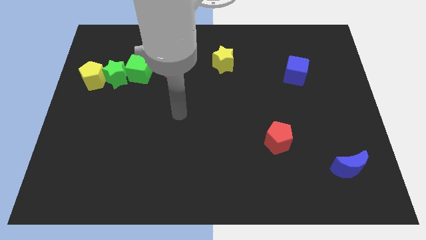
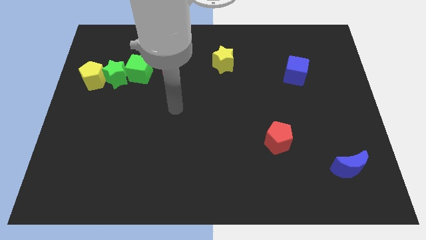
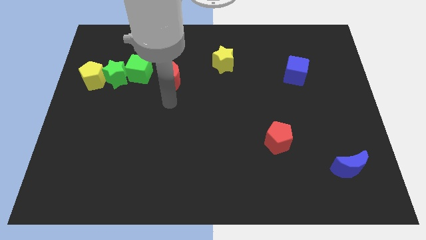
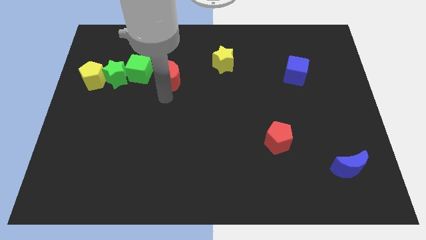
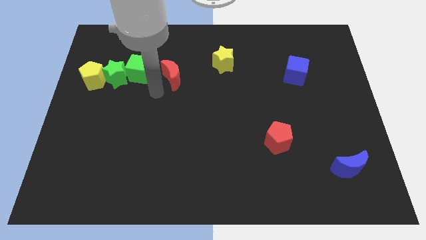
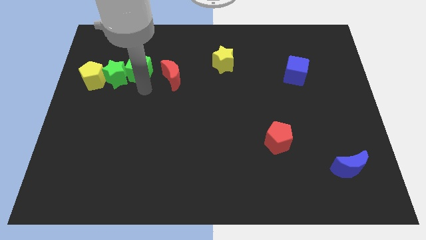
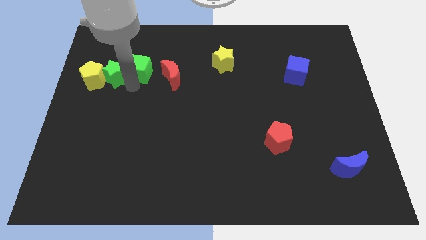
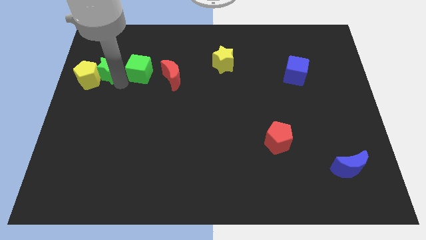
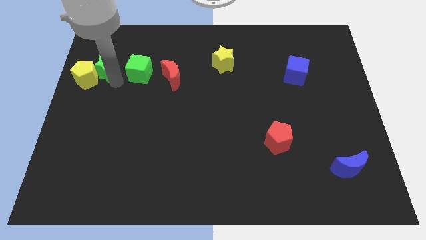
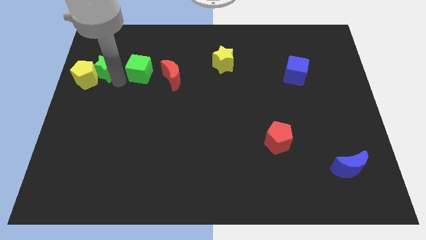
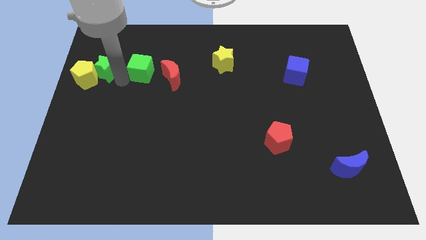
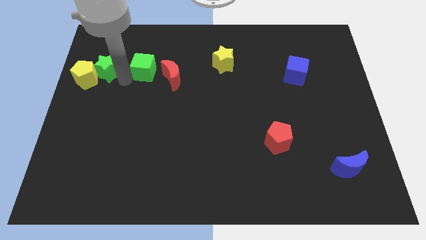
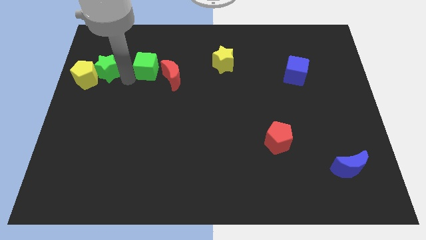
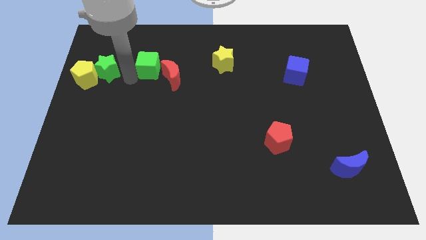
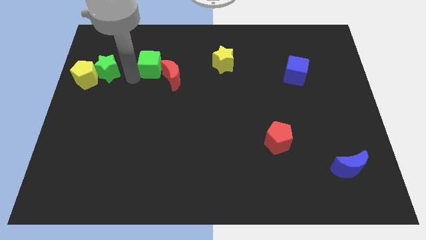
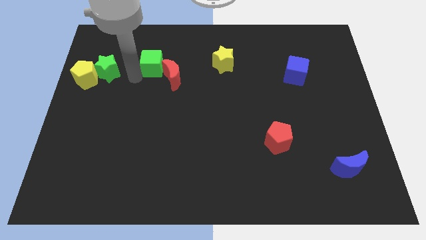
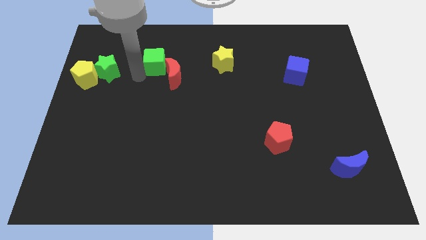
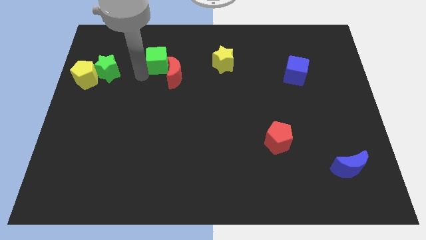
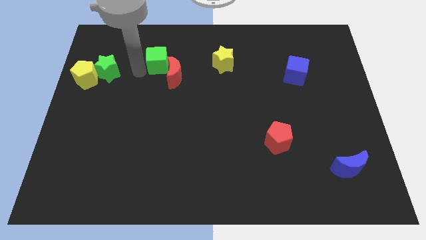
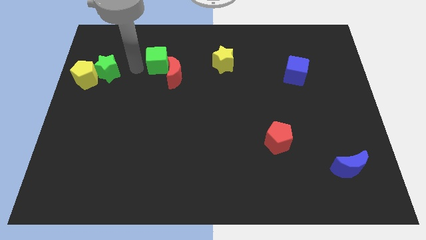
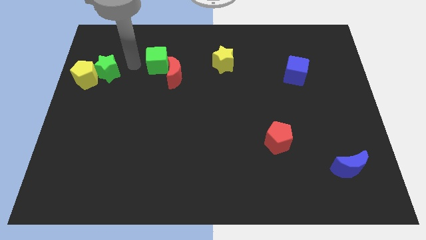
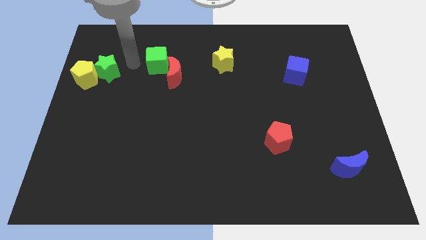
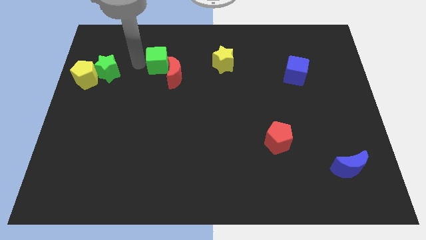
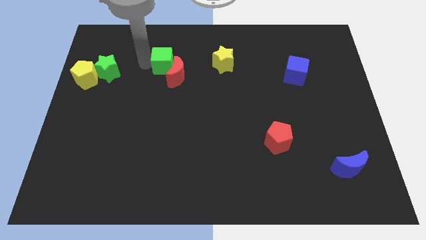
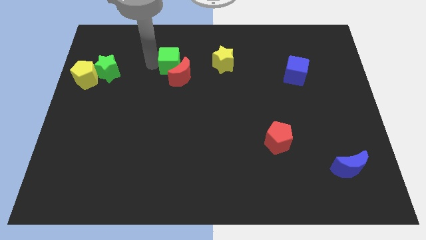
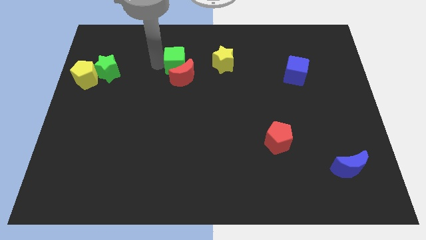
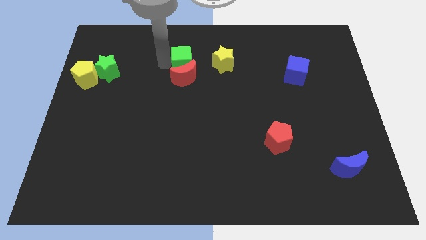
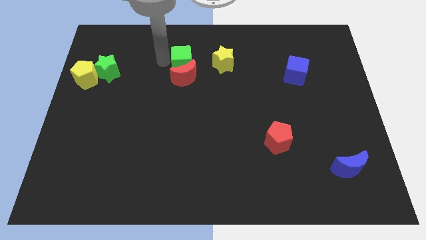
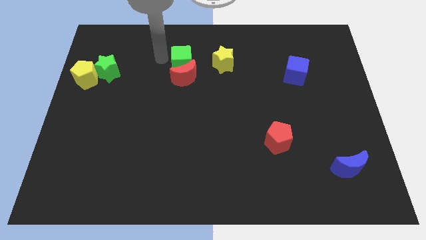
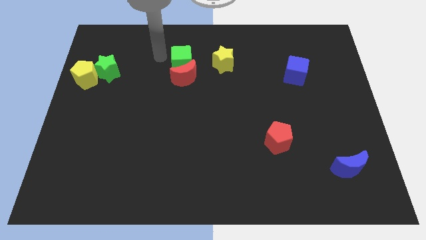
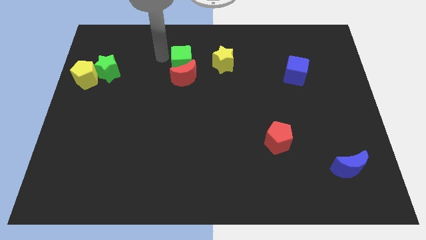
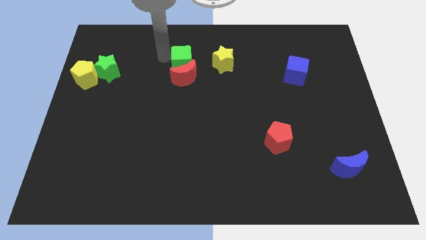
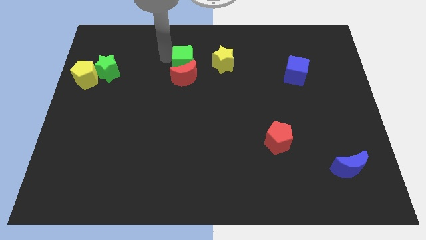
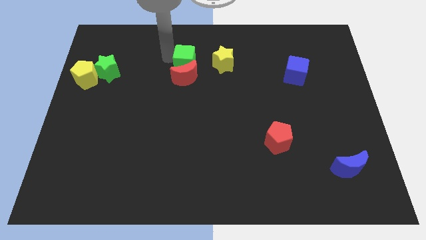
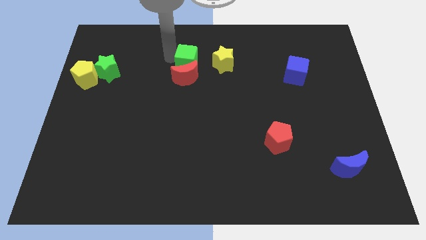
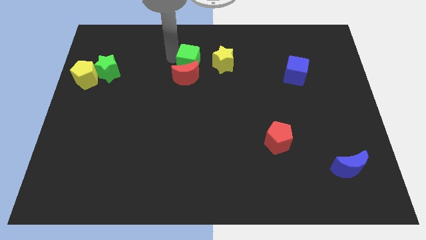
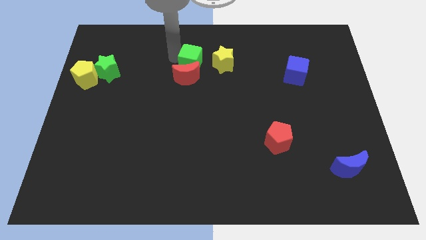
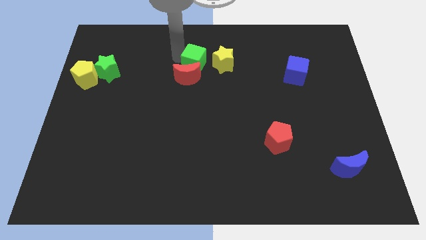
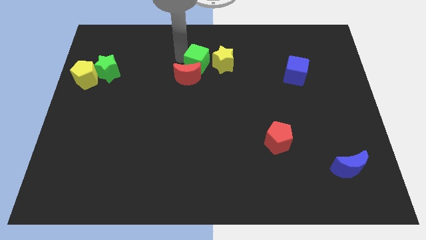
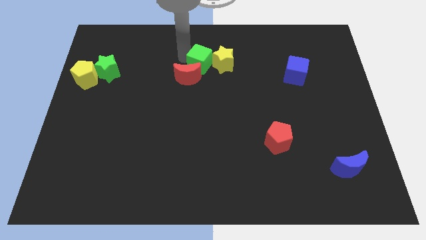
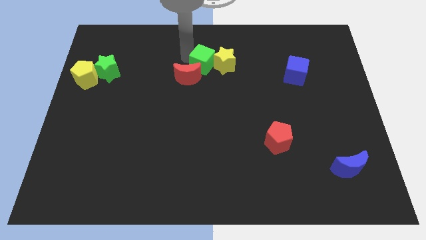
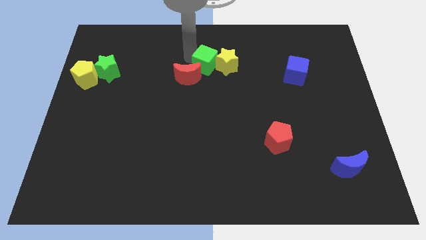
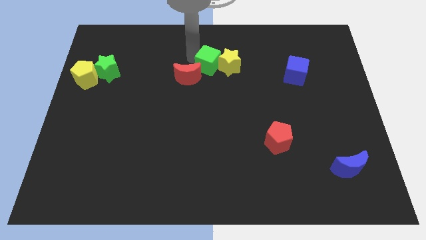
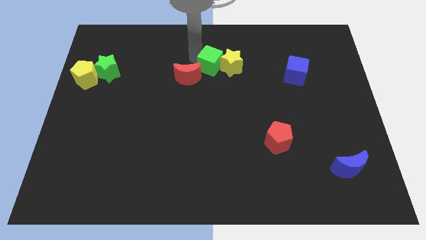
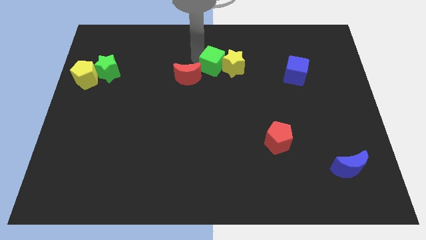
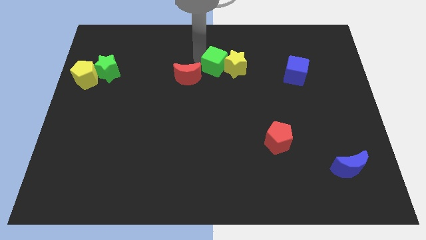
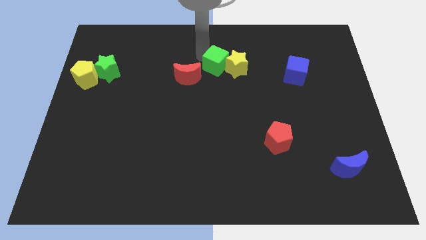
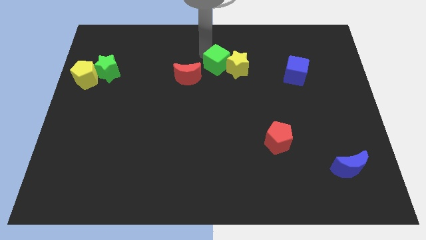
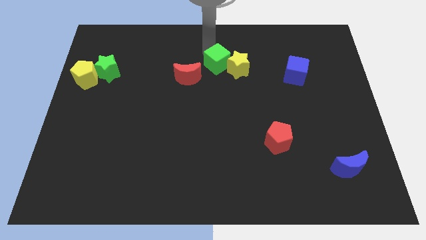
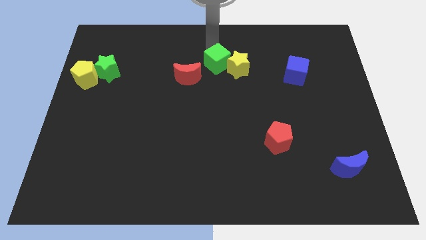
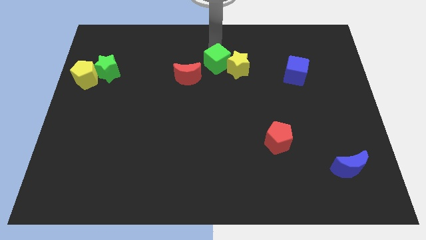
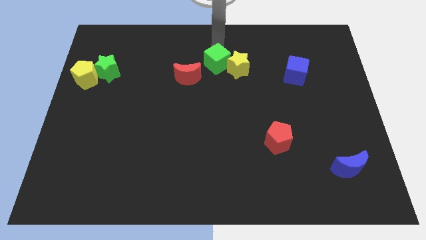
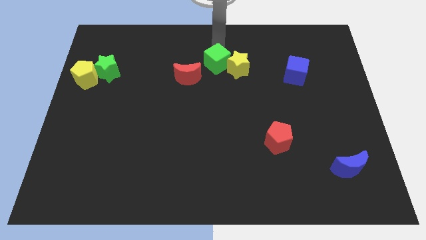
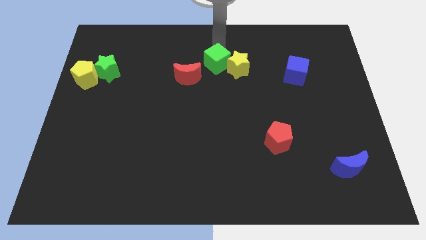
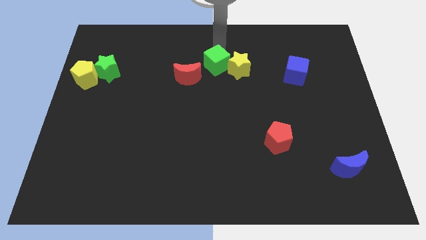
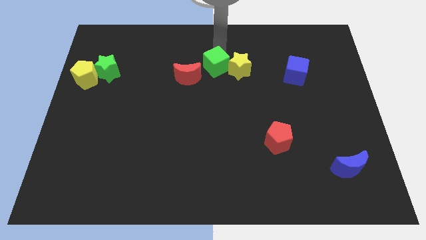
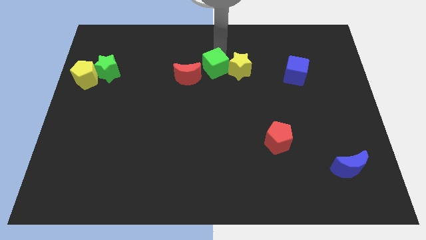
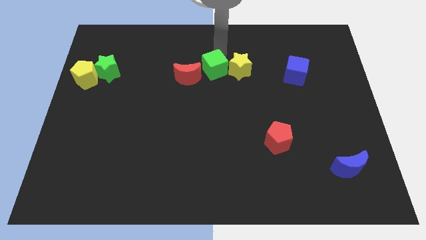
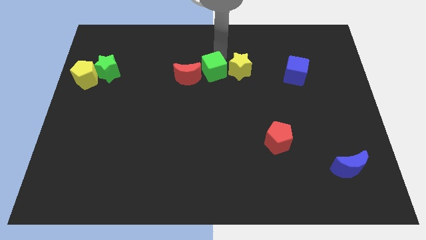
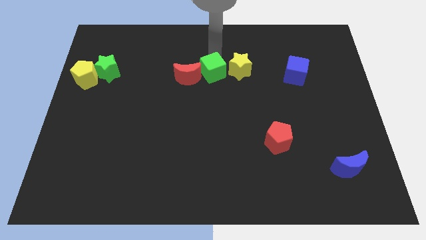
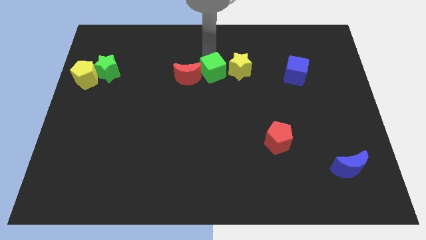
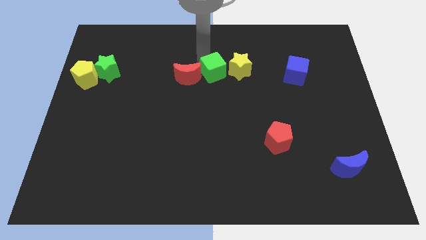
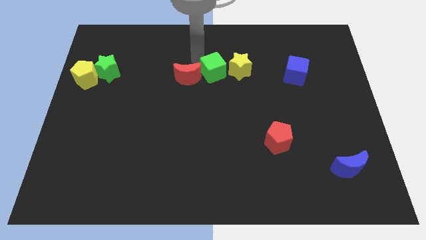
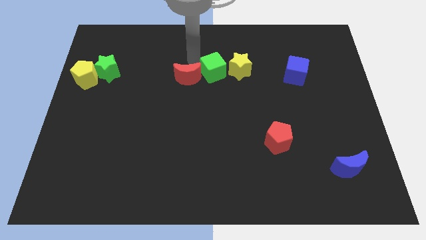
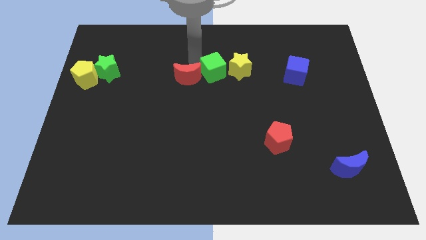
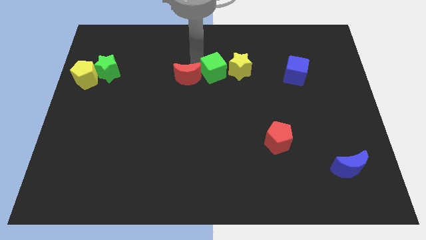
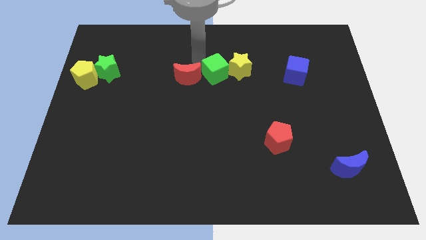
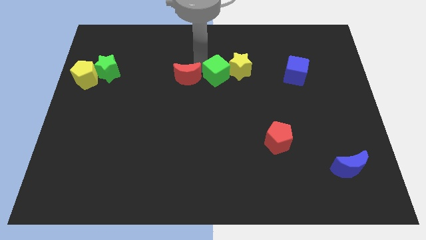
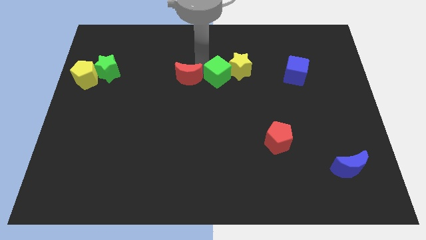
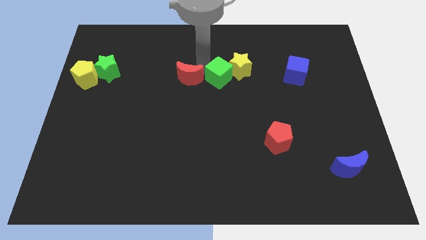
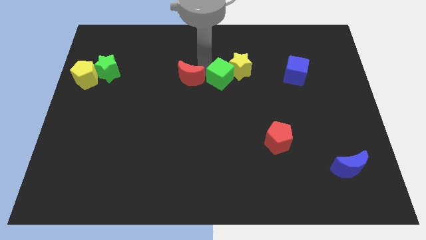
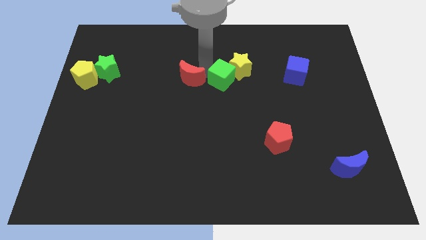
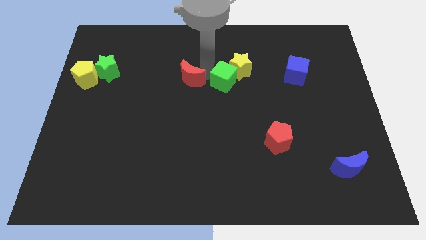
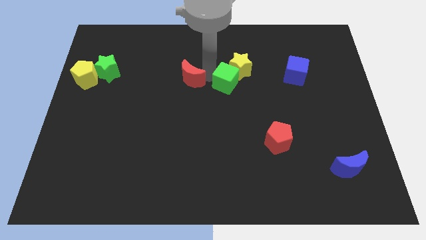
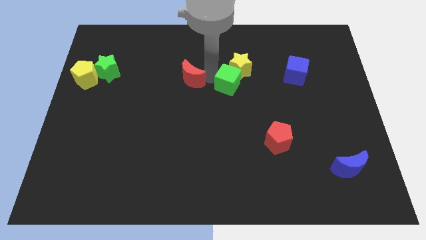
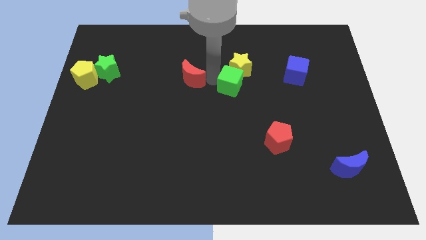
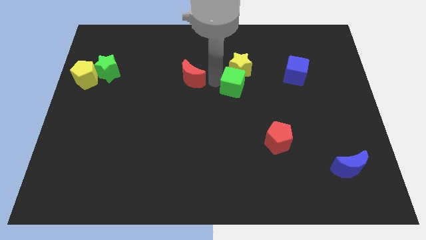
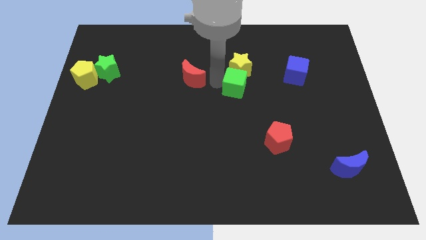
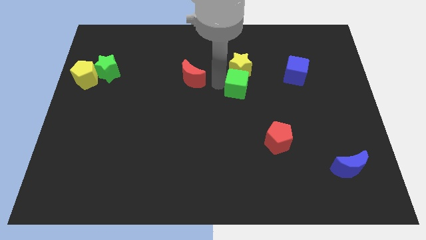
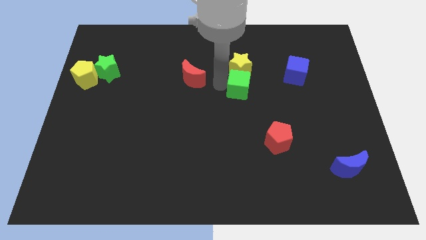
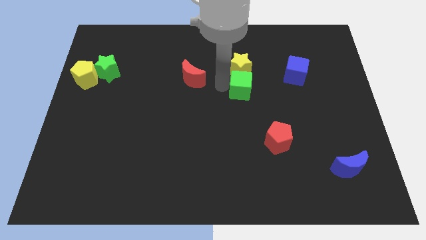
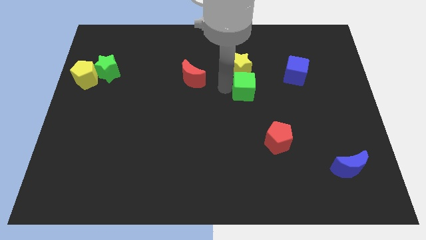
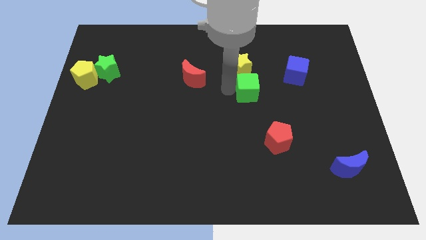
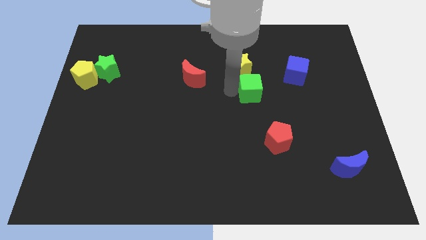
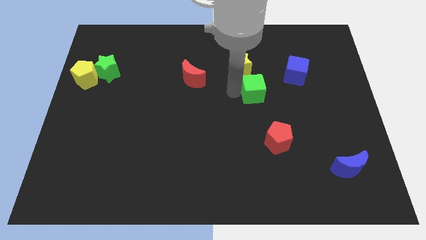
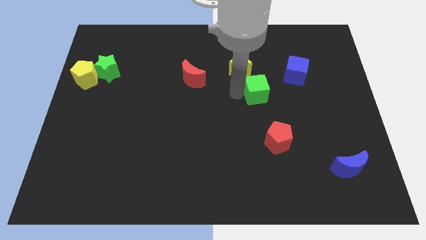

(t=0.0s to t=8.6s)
move the green cube diagonally down and to the left of the blue cube
